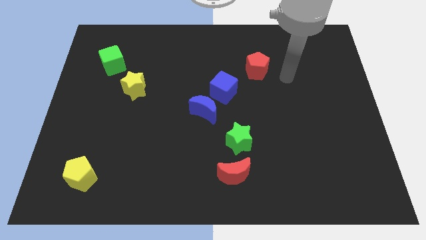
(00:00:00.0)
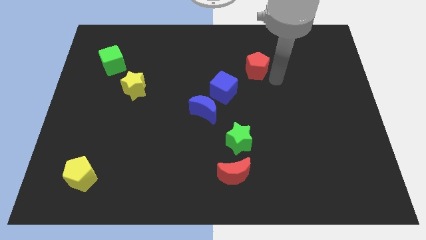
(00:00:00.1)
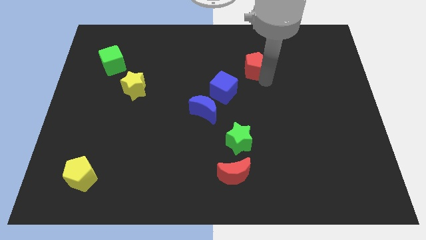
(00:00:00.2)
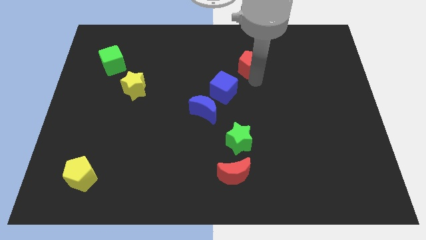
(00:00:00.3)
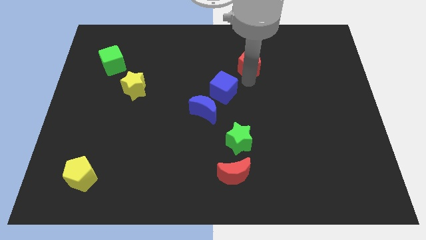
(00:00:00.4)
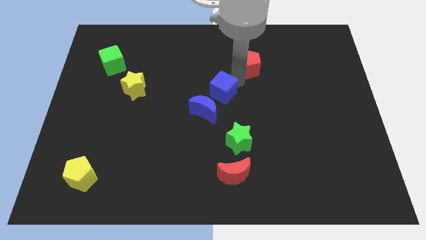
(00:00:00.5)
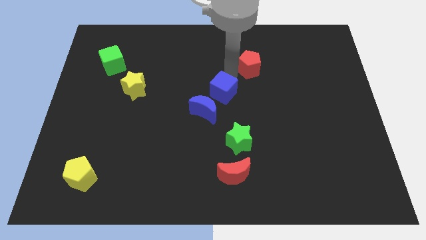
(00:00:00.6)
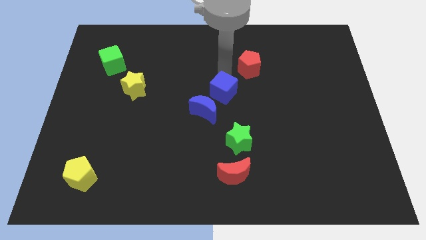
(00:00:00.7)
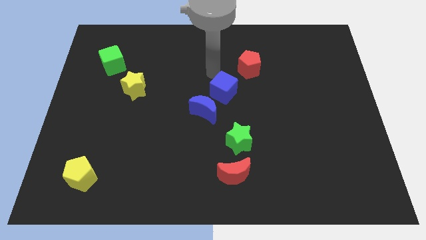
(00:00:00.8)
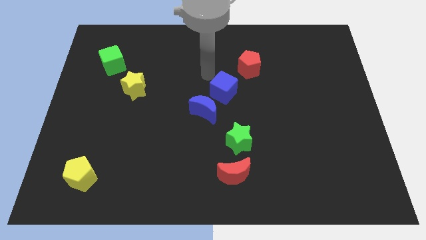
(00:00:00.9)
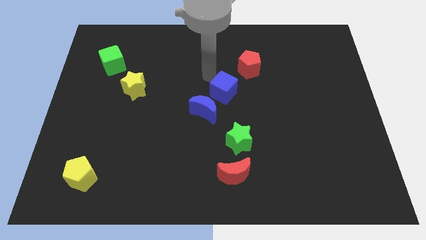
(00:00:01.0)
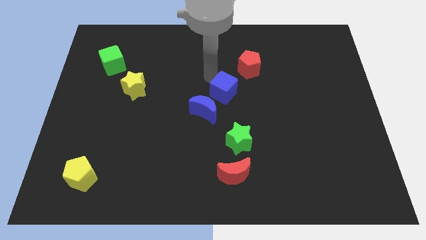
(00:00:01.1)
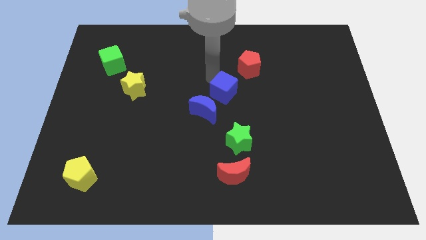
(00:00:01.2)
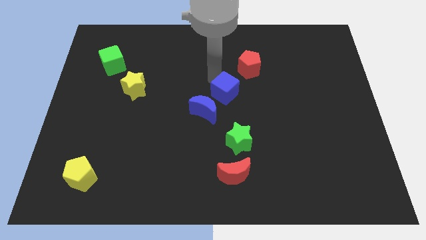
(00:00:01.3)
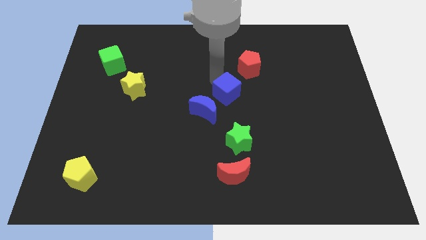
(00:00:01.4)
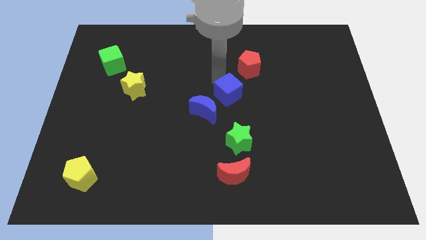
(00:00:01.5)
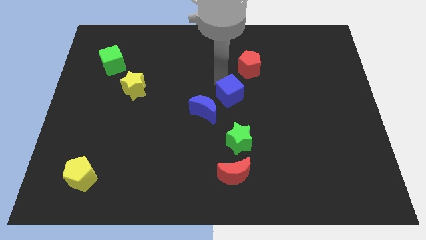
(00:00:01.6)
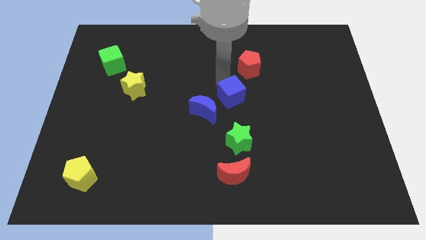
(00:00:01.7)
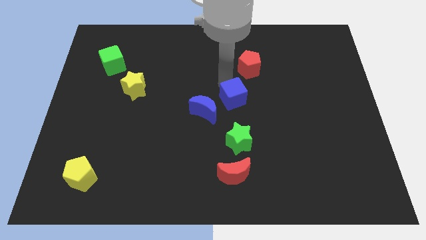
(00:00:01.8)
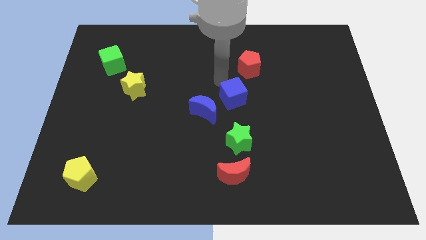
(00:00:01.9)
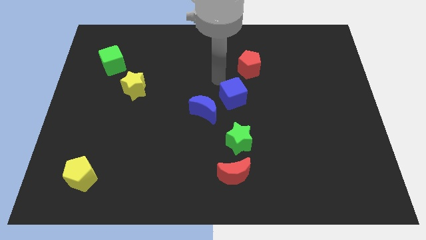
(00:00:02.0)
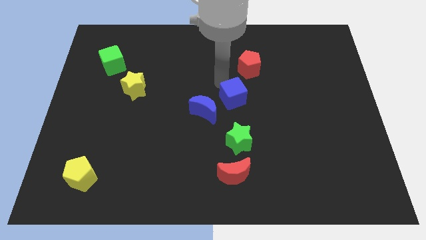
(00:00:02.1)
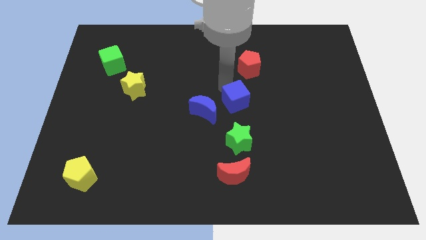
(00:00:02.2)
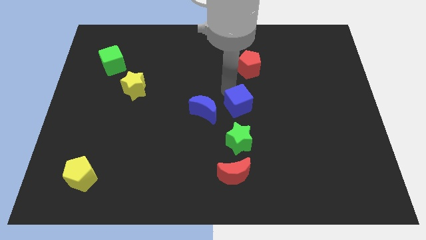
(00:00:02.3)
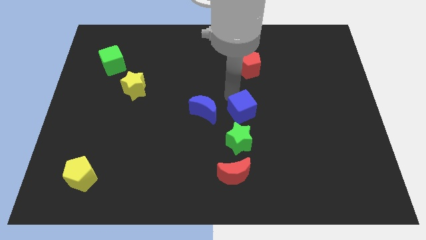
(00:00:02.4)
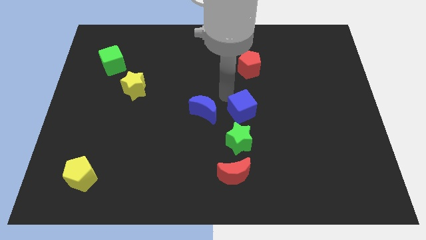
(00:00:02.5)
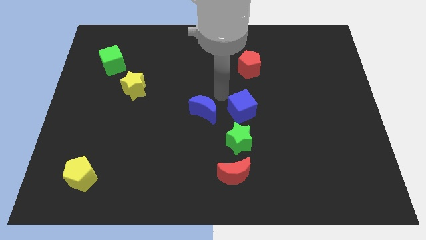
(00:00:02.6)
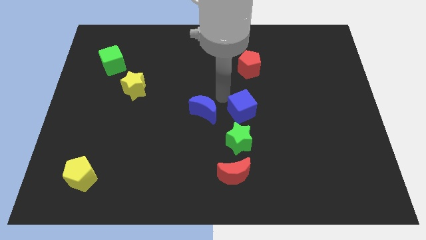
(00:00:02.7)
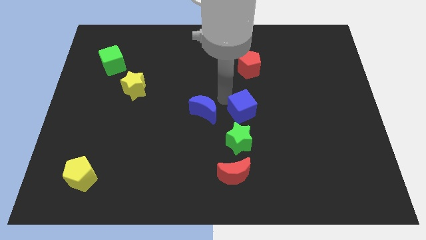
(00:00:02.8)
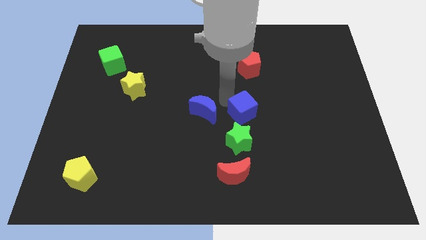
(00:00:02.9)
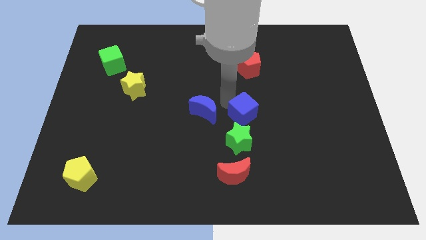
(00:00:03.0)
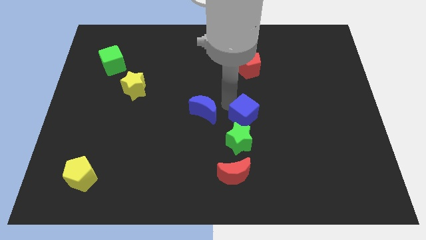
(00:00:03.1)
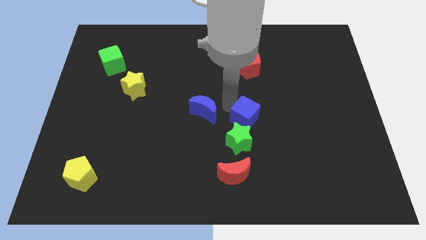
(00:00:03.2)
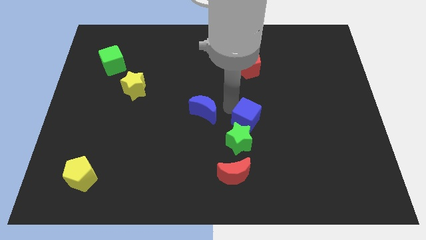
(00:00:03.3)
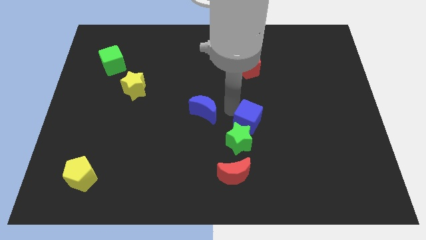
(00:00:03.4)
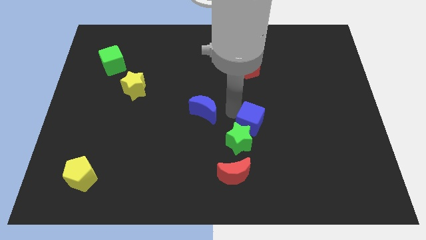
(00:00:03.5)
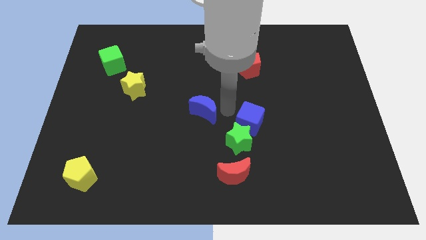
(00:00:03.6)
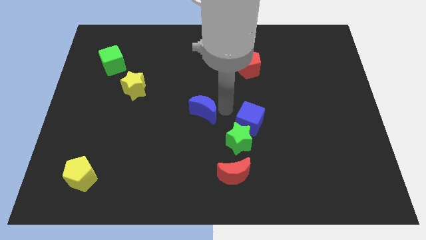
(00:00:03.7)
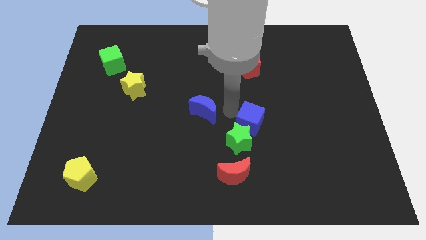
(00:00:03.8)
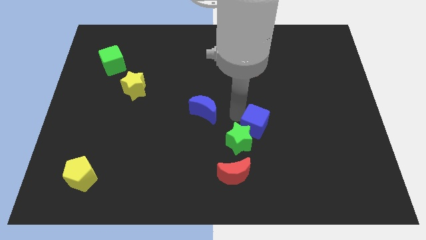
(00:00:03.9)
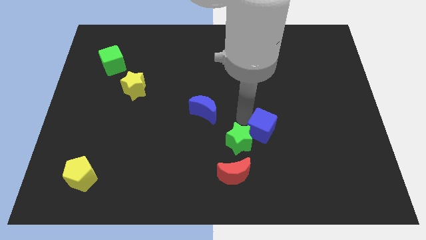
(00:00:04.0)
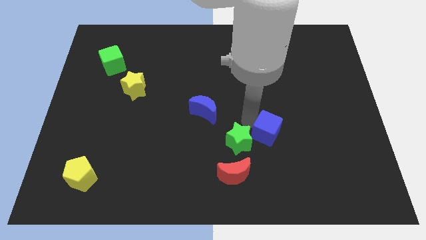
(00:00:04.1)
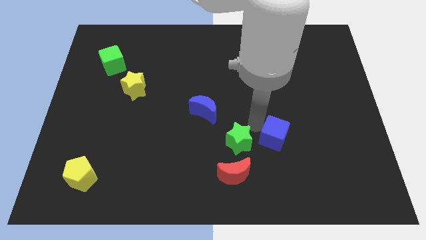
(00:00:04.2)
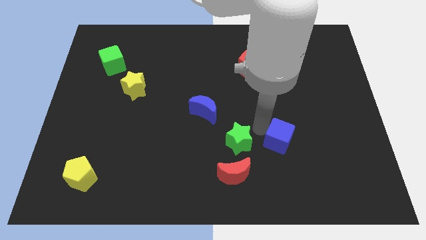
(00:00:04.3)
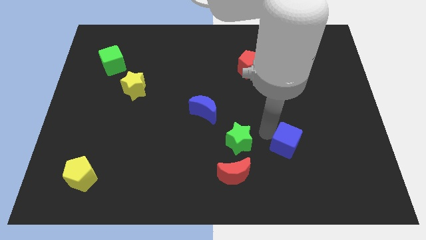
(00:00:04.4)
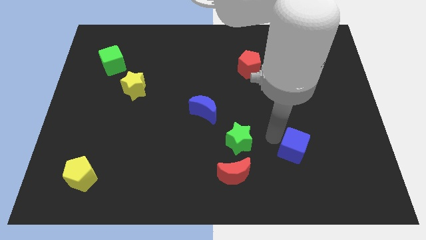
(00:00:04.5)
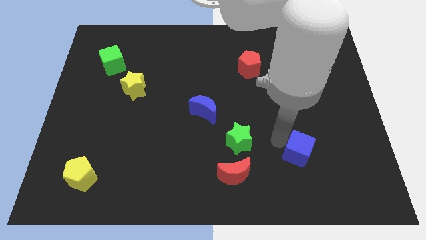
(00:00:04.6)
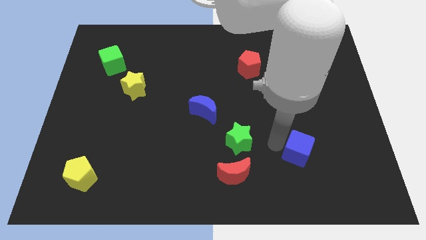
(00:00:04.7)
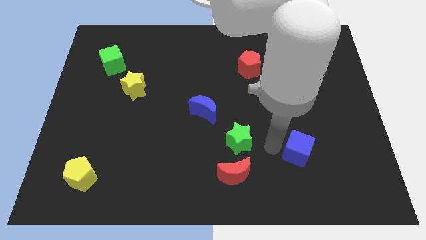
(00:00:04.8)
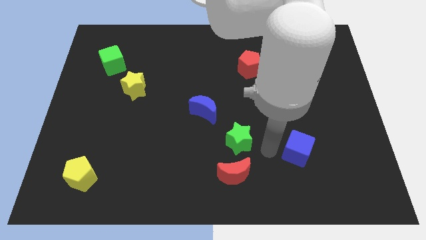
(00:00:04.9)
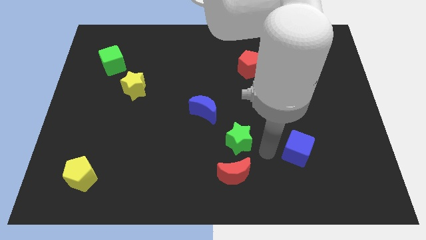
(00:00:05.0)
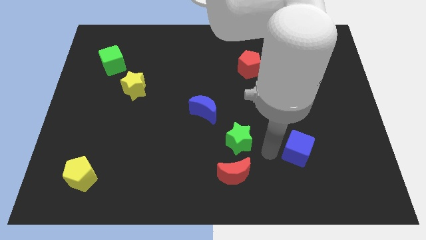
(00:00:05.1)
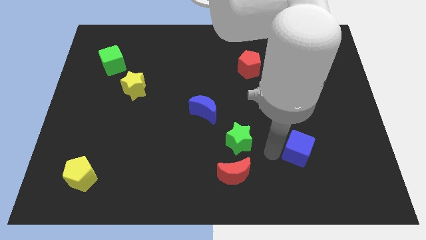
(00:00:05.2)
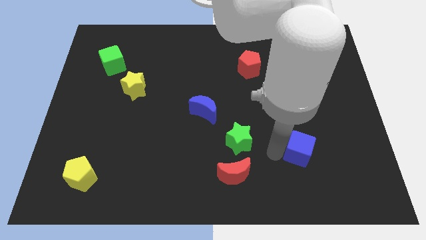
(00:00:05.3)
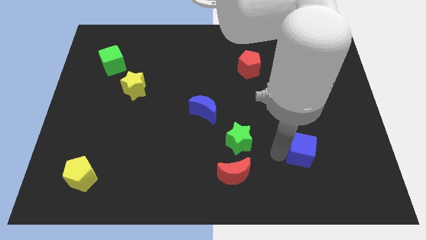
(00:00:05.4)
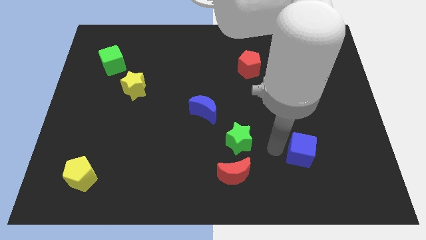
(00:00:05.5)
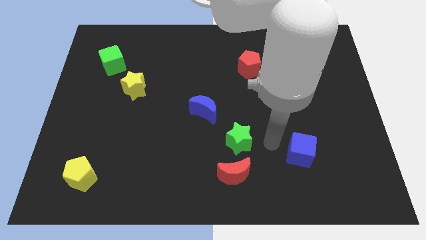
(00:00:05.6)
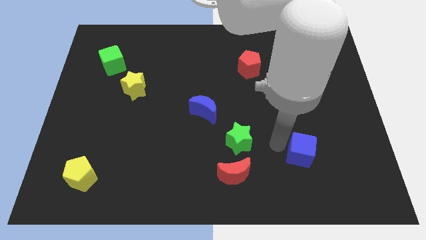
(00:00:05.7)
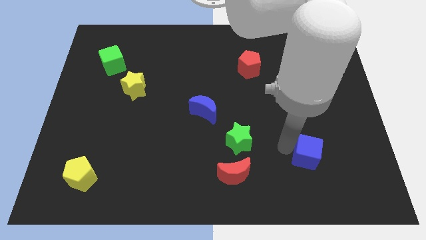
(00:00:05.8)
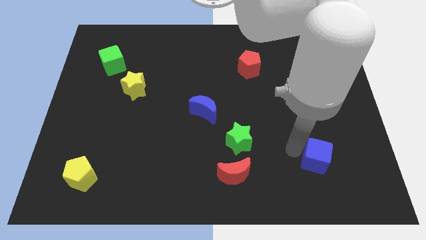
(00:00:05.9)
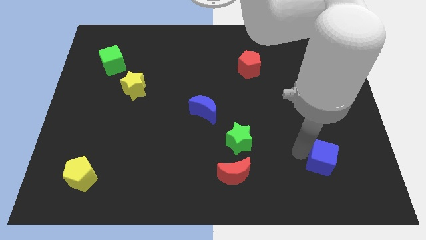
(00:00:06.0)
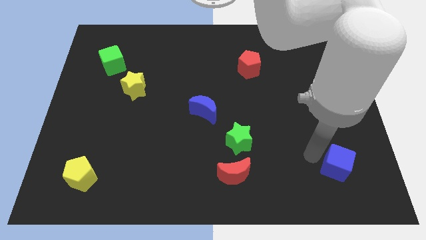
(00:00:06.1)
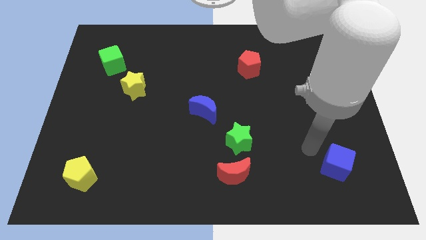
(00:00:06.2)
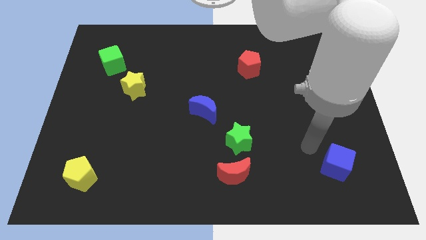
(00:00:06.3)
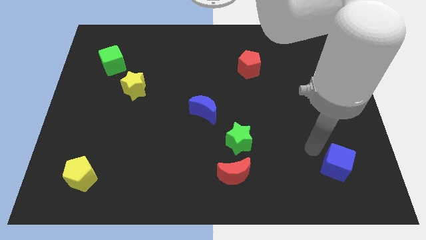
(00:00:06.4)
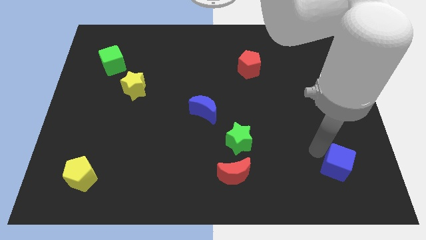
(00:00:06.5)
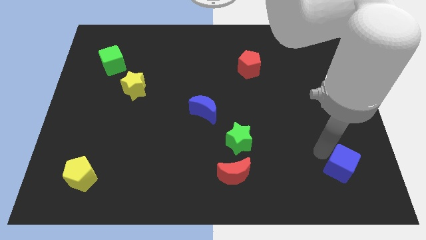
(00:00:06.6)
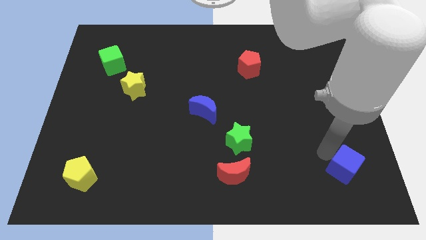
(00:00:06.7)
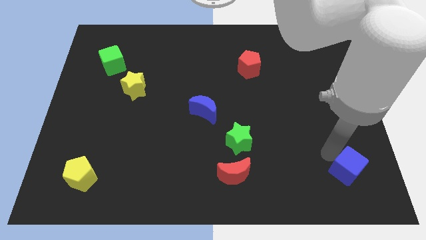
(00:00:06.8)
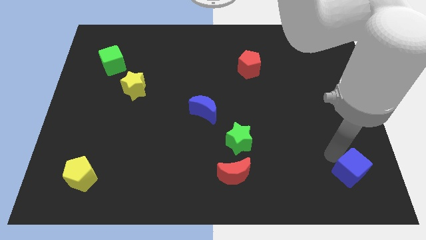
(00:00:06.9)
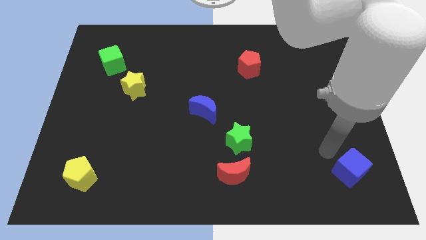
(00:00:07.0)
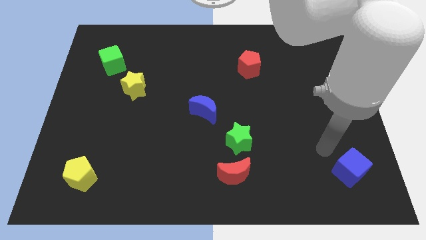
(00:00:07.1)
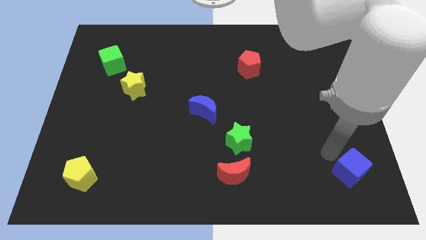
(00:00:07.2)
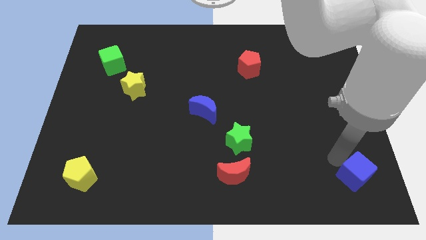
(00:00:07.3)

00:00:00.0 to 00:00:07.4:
push the blue cube to the bottom right corner

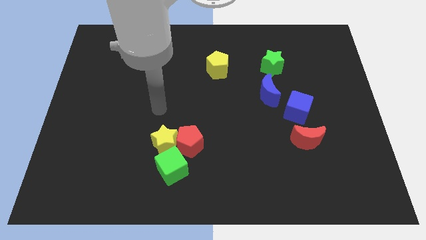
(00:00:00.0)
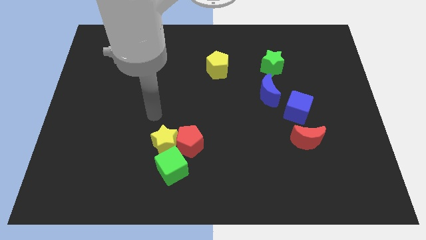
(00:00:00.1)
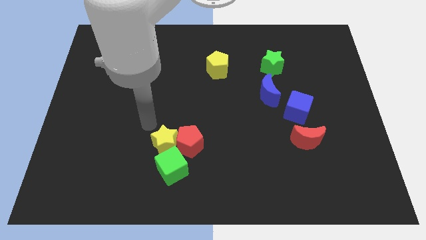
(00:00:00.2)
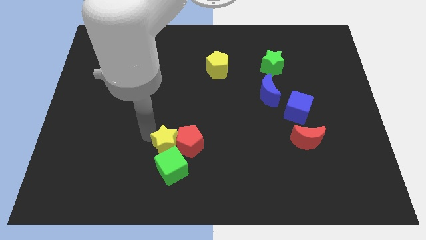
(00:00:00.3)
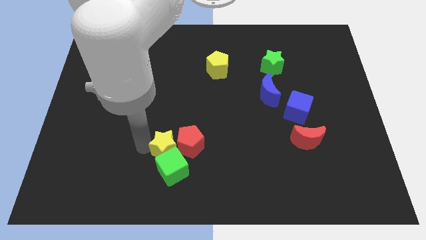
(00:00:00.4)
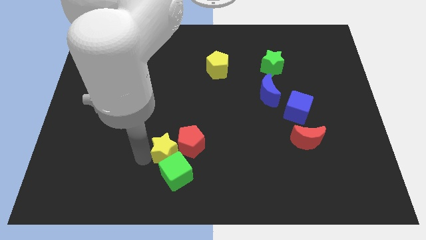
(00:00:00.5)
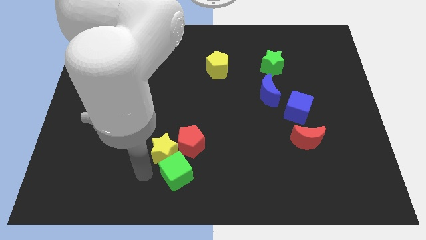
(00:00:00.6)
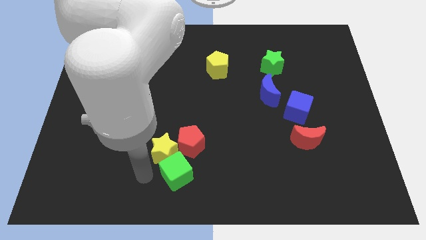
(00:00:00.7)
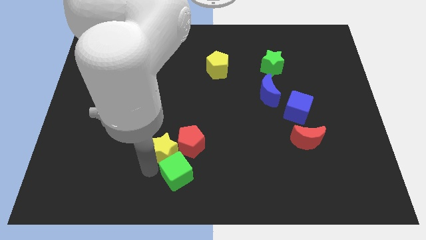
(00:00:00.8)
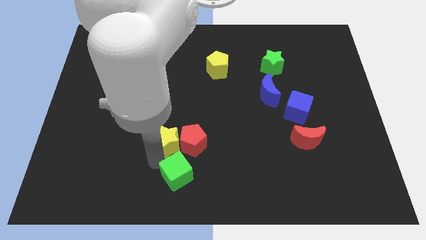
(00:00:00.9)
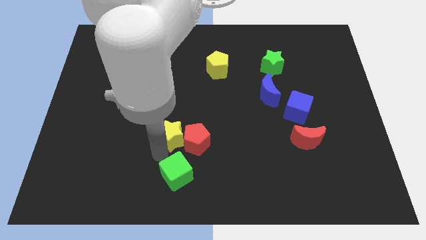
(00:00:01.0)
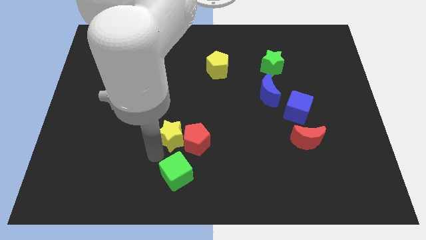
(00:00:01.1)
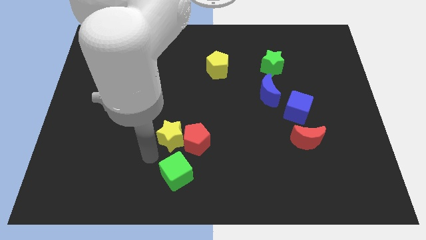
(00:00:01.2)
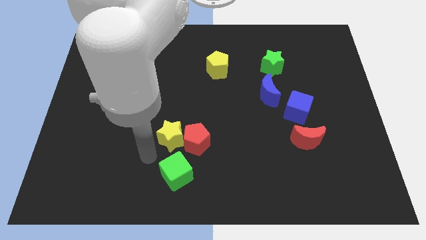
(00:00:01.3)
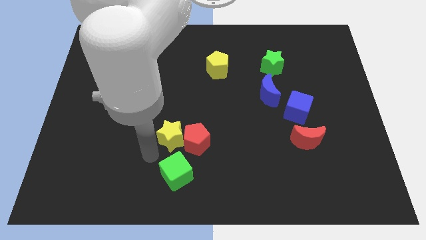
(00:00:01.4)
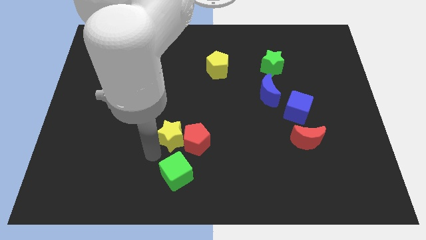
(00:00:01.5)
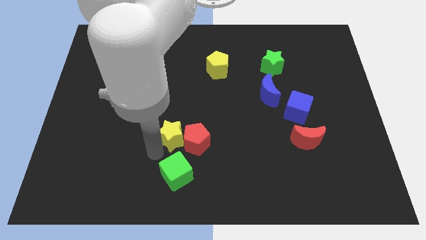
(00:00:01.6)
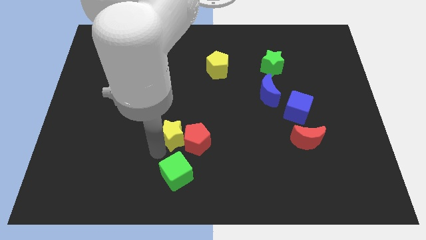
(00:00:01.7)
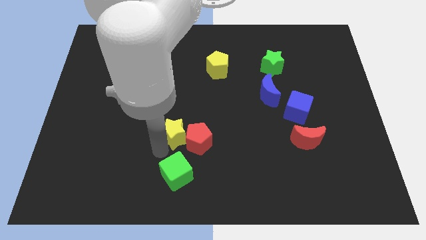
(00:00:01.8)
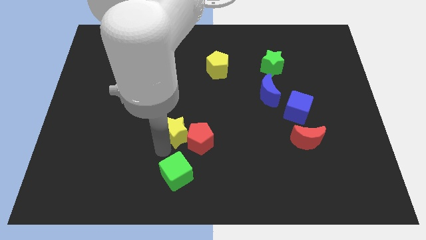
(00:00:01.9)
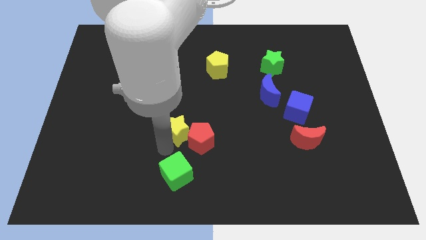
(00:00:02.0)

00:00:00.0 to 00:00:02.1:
push the yellow star to the center
